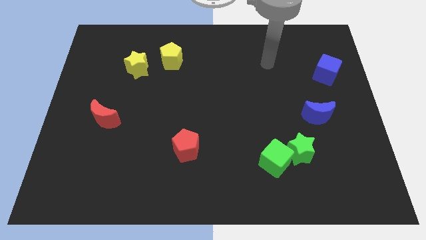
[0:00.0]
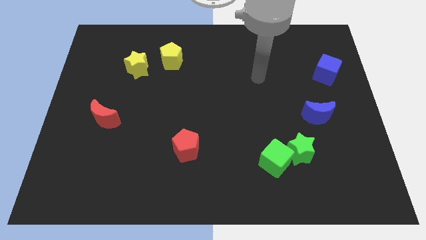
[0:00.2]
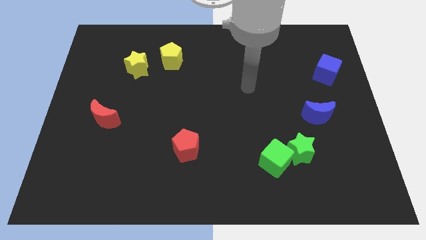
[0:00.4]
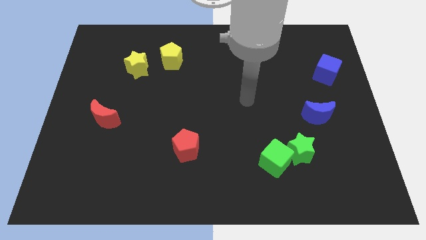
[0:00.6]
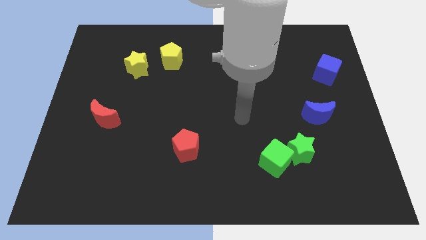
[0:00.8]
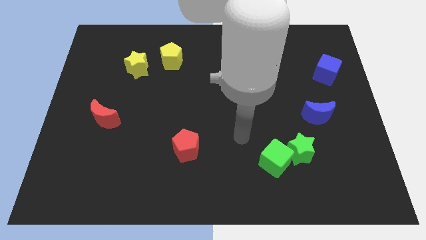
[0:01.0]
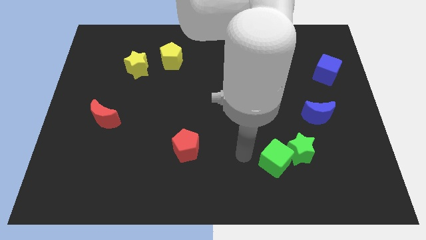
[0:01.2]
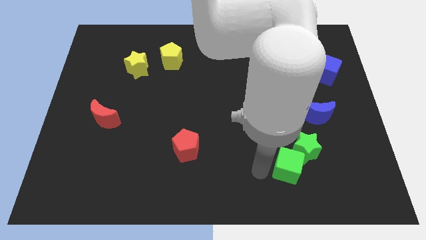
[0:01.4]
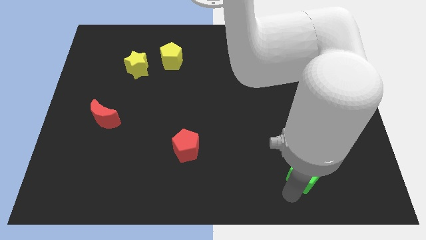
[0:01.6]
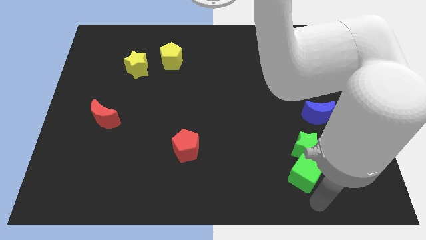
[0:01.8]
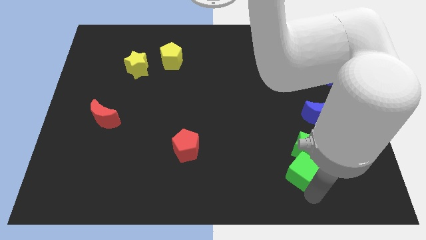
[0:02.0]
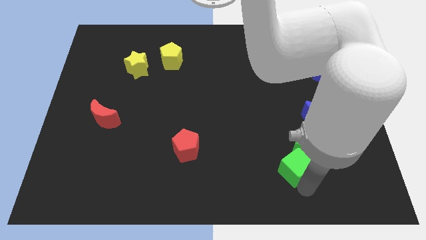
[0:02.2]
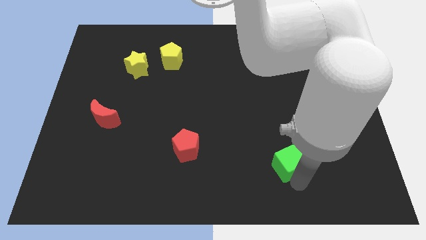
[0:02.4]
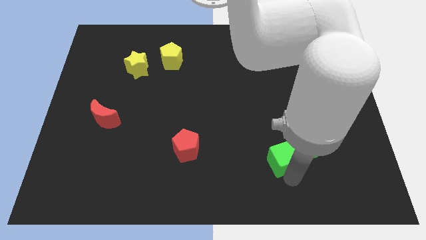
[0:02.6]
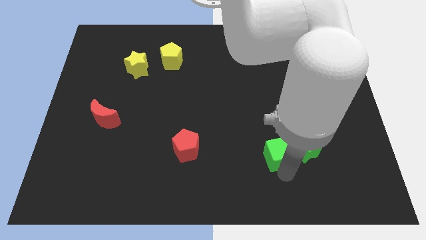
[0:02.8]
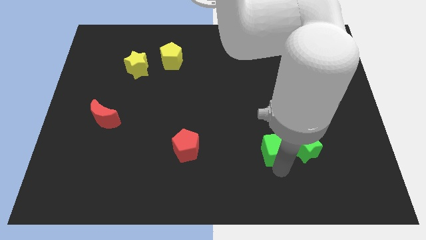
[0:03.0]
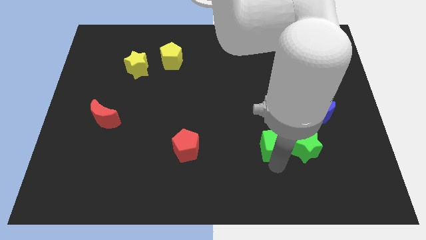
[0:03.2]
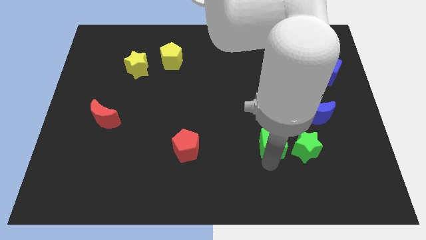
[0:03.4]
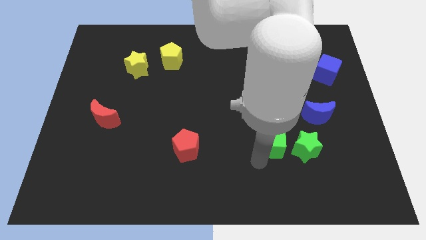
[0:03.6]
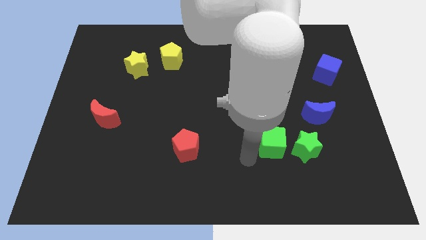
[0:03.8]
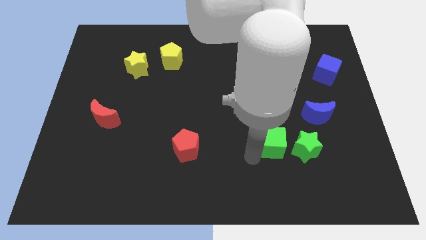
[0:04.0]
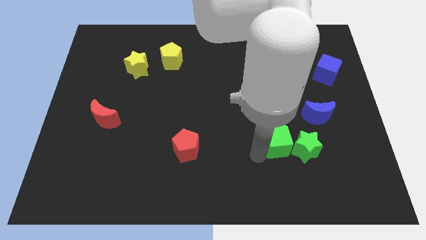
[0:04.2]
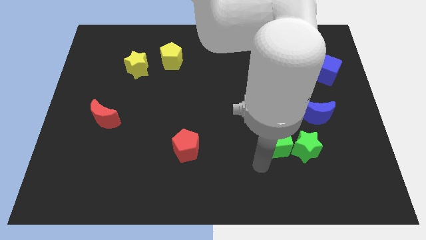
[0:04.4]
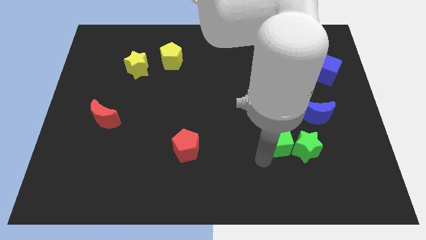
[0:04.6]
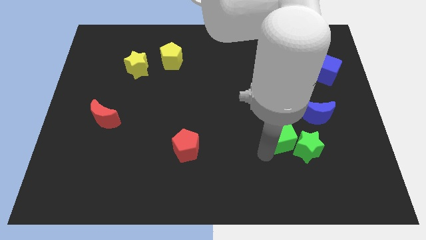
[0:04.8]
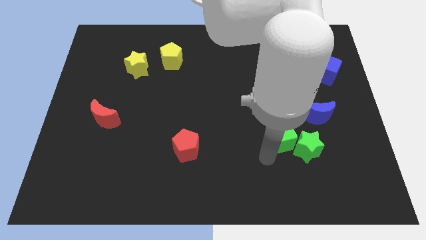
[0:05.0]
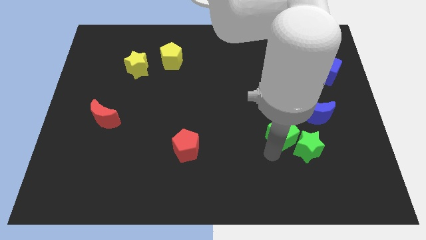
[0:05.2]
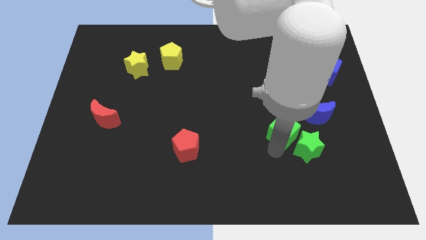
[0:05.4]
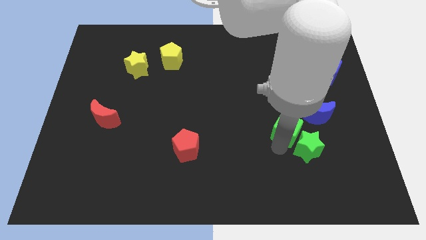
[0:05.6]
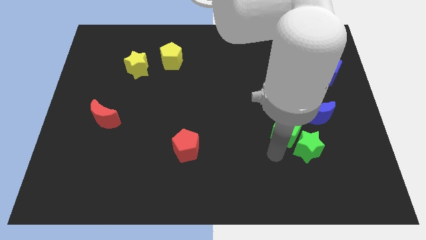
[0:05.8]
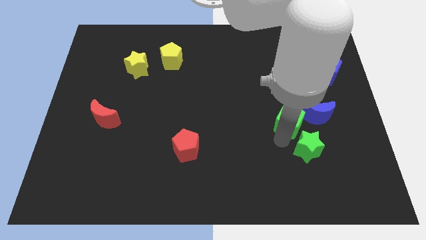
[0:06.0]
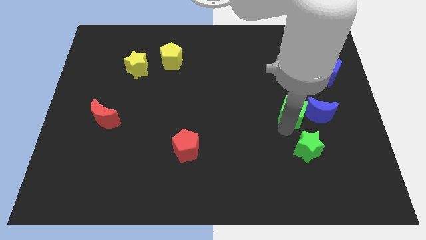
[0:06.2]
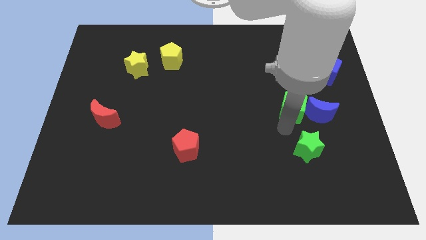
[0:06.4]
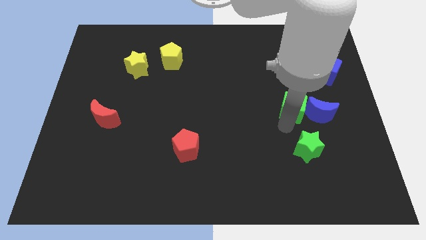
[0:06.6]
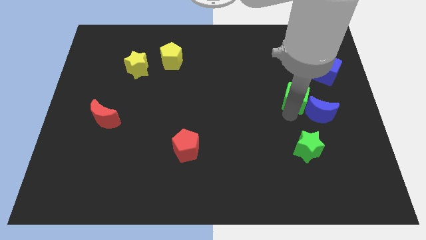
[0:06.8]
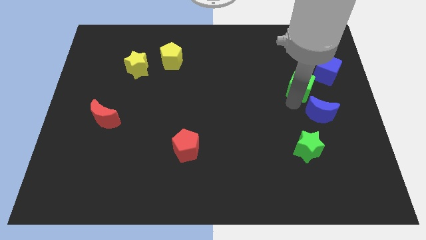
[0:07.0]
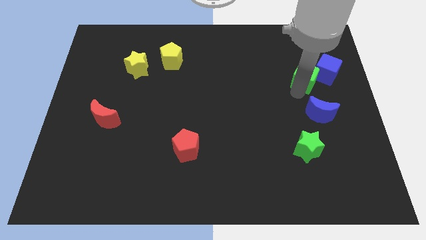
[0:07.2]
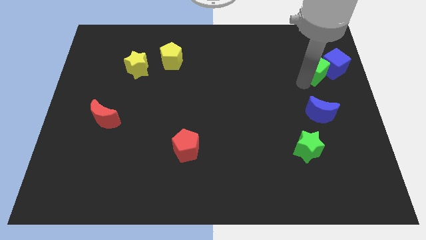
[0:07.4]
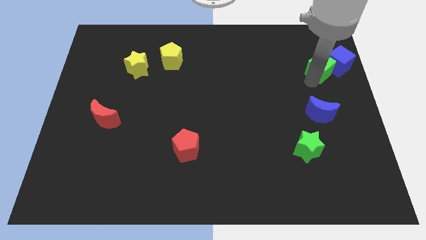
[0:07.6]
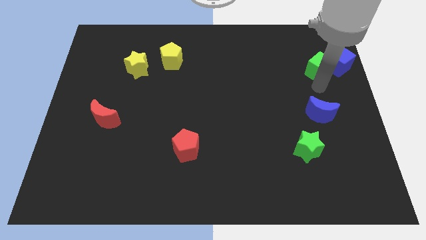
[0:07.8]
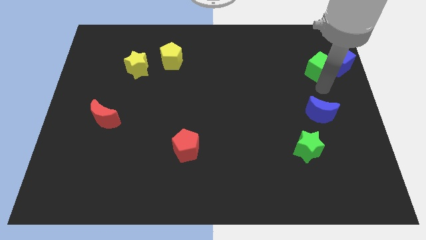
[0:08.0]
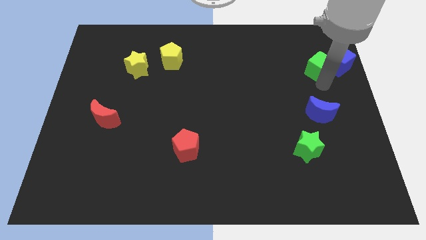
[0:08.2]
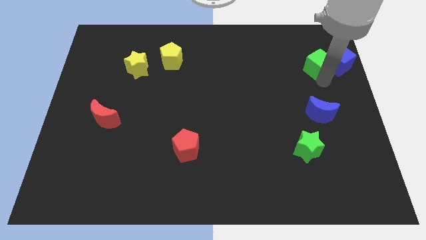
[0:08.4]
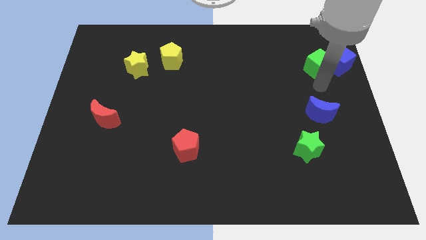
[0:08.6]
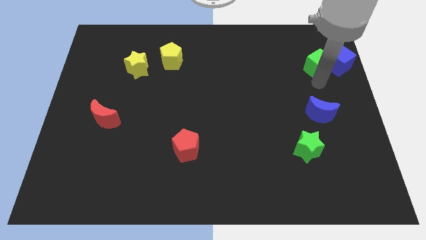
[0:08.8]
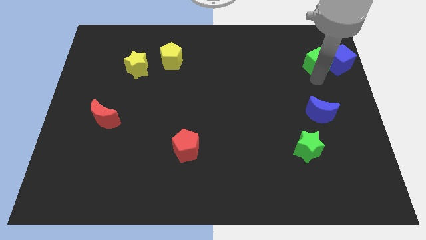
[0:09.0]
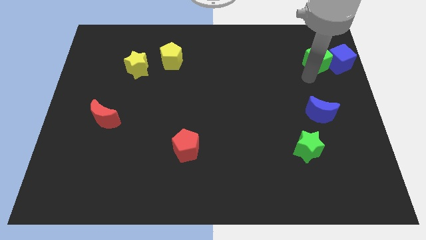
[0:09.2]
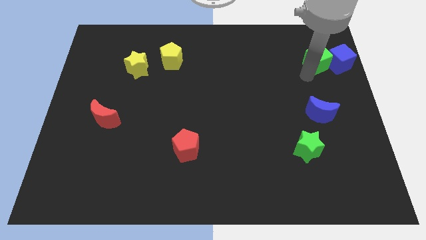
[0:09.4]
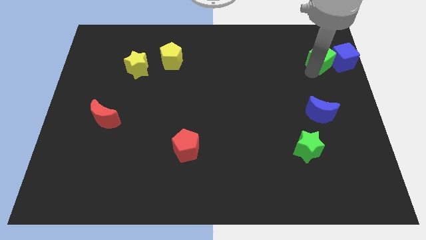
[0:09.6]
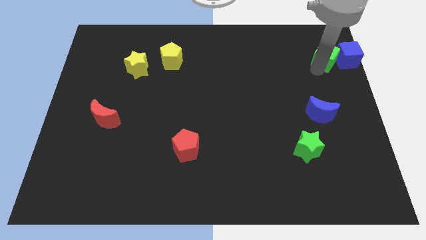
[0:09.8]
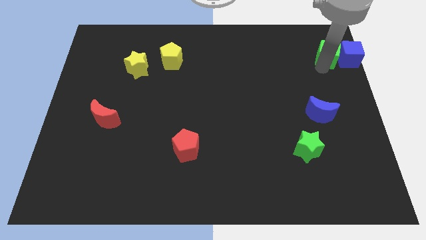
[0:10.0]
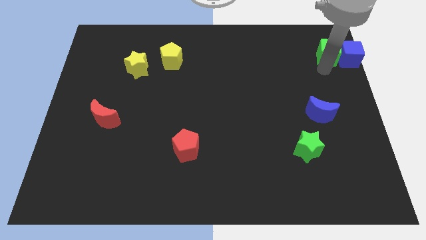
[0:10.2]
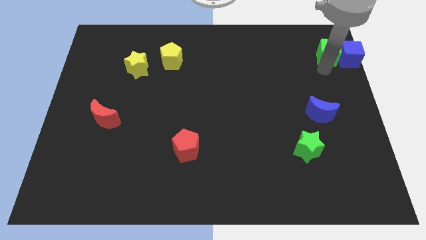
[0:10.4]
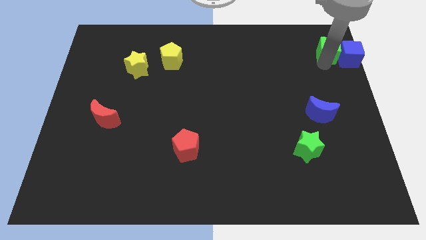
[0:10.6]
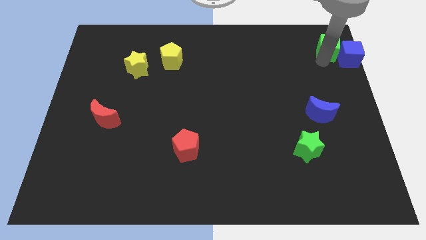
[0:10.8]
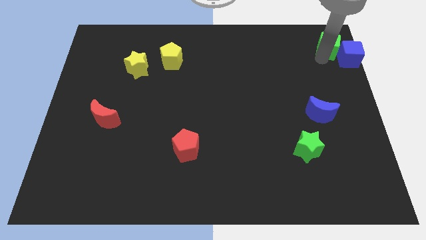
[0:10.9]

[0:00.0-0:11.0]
move the green cube to the top right corner

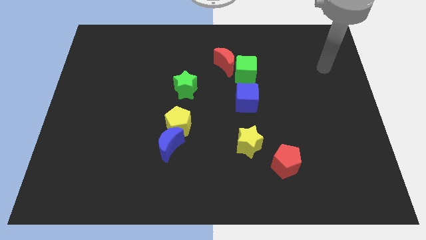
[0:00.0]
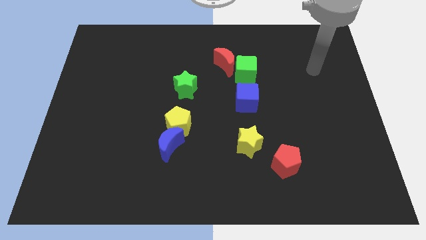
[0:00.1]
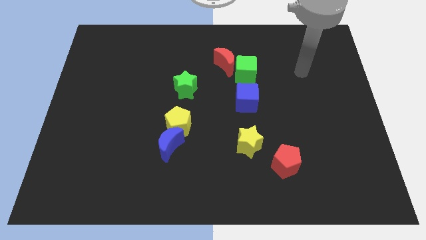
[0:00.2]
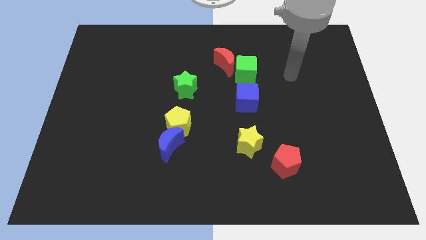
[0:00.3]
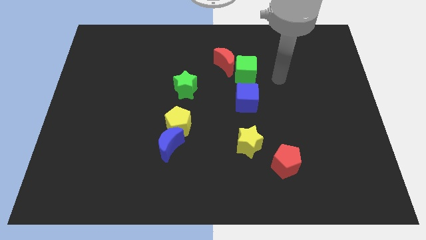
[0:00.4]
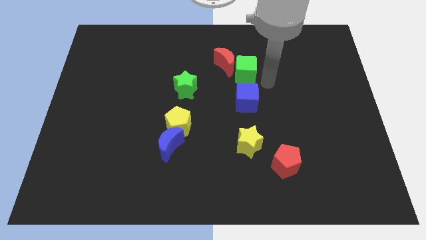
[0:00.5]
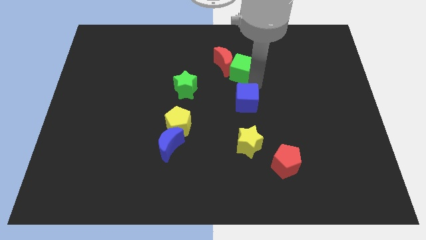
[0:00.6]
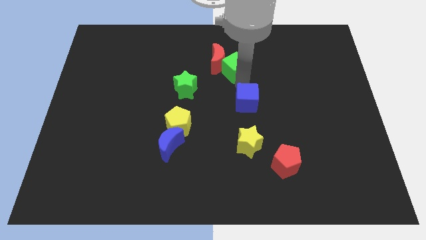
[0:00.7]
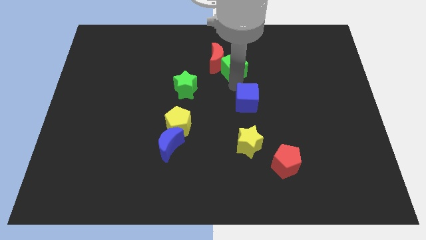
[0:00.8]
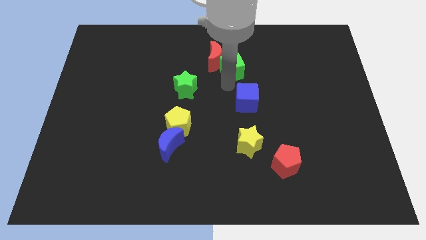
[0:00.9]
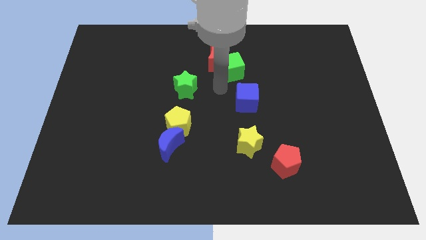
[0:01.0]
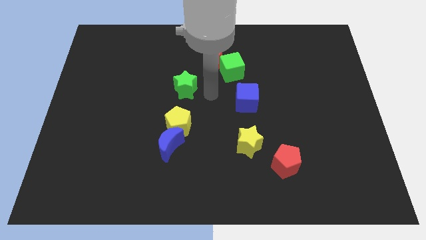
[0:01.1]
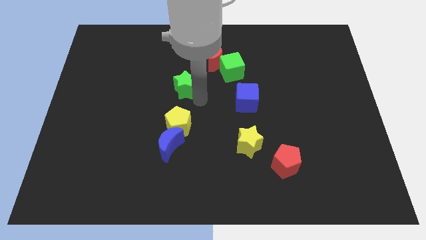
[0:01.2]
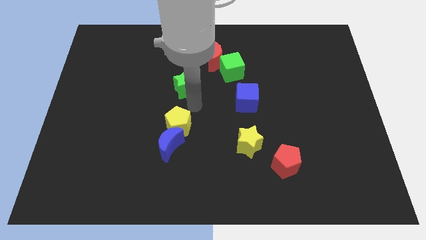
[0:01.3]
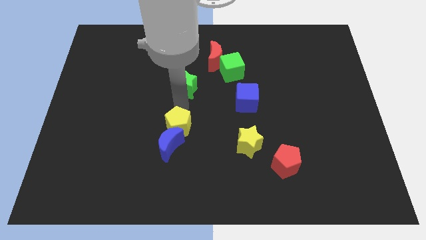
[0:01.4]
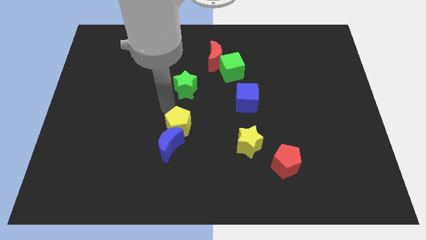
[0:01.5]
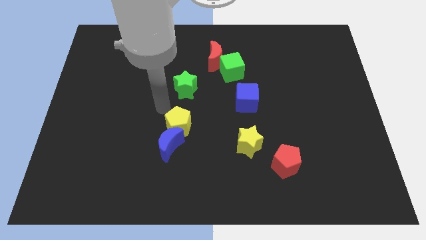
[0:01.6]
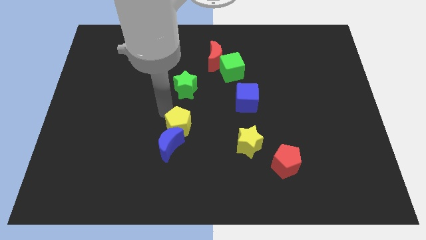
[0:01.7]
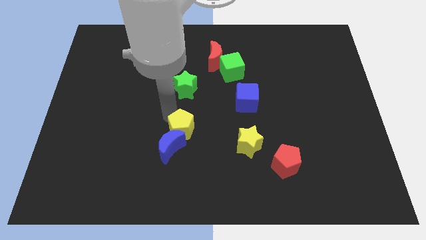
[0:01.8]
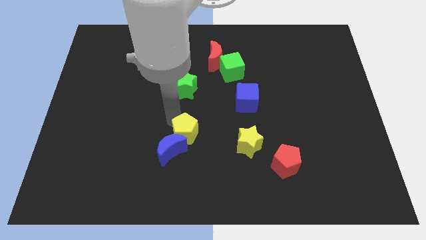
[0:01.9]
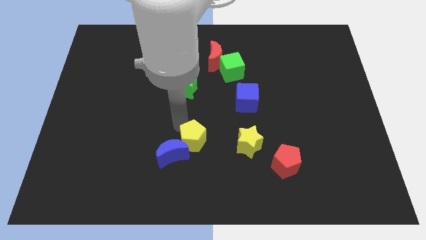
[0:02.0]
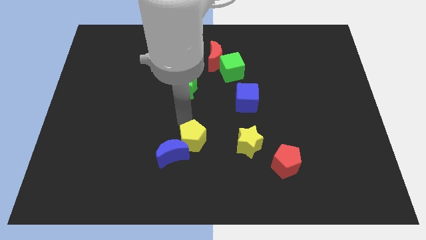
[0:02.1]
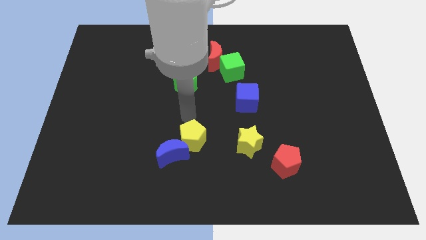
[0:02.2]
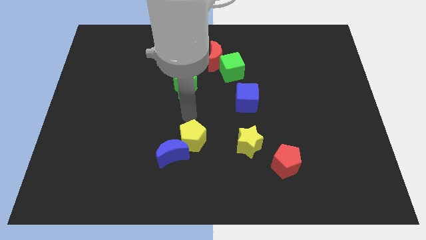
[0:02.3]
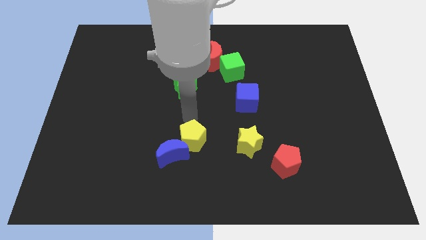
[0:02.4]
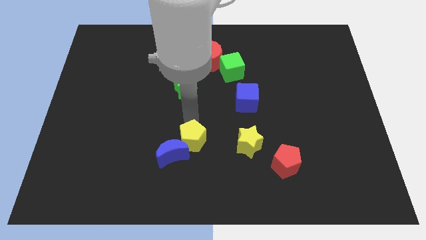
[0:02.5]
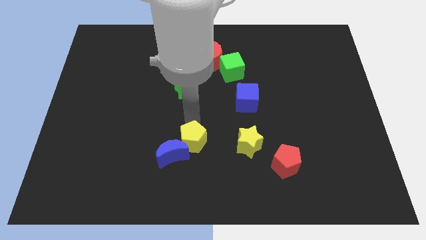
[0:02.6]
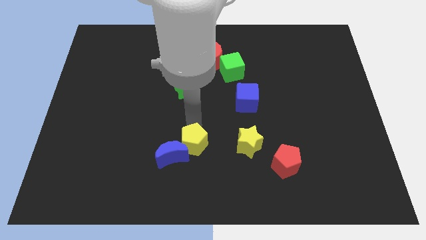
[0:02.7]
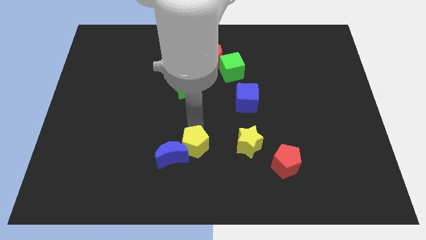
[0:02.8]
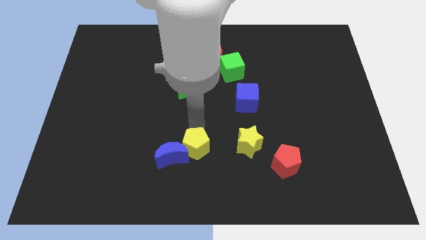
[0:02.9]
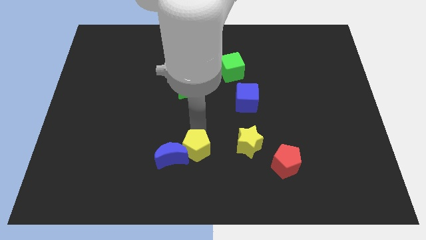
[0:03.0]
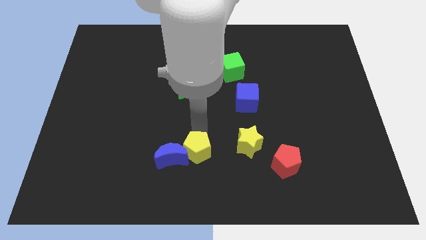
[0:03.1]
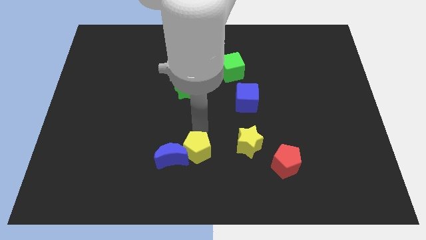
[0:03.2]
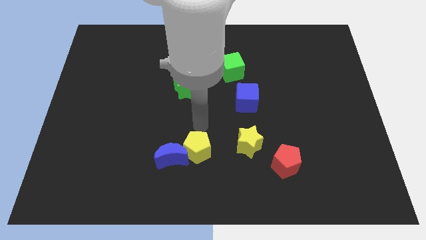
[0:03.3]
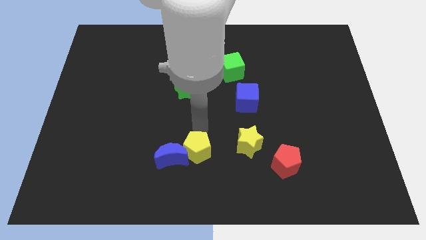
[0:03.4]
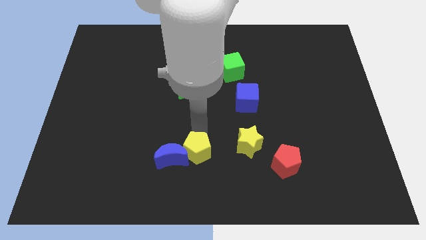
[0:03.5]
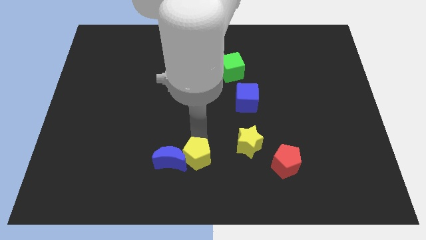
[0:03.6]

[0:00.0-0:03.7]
put the yellow pentagon to the bottom
